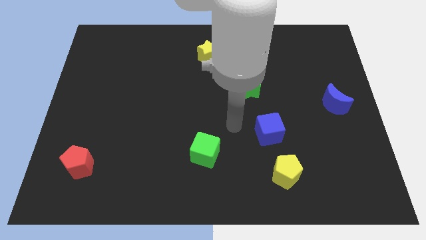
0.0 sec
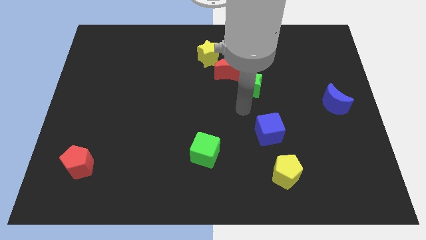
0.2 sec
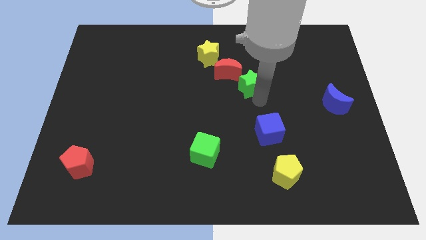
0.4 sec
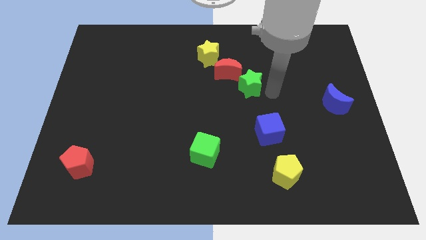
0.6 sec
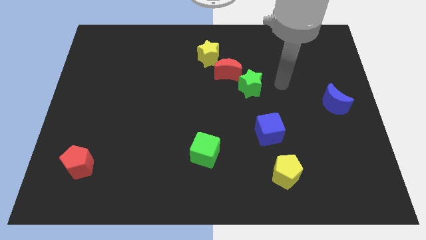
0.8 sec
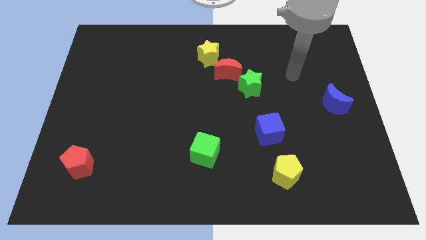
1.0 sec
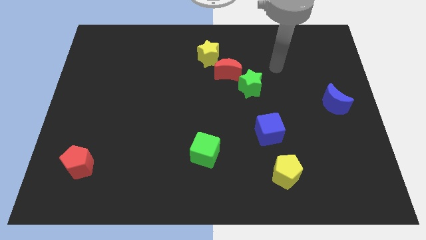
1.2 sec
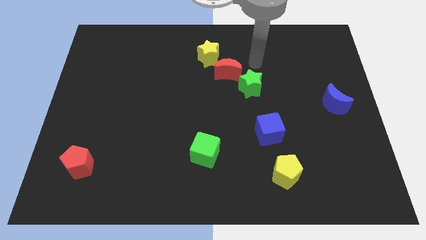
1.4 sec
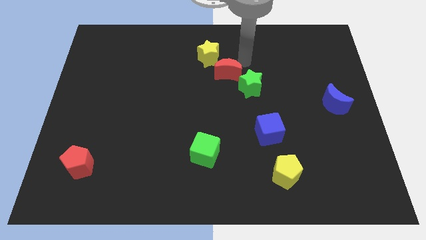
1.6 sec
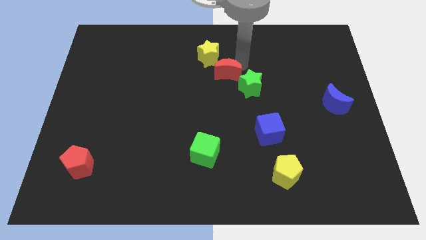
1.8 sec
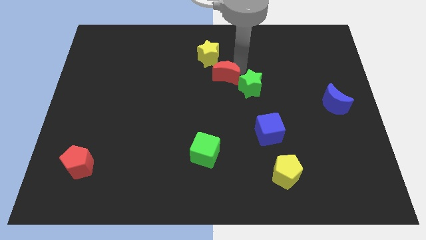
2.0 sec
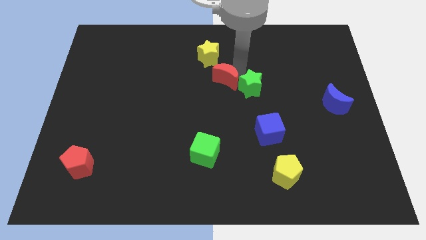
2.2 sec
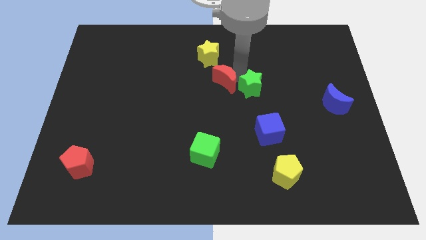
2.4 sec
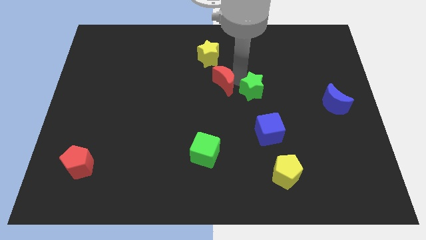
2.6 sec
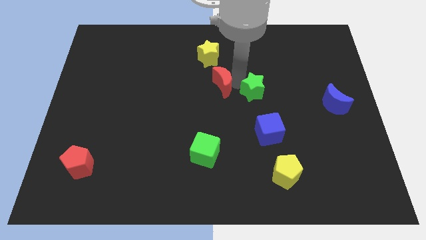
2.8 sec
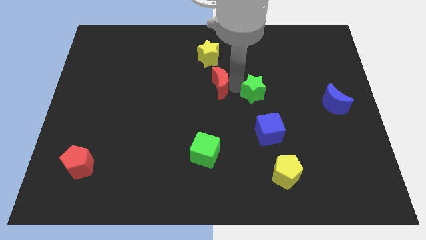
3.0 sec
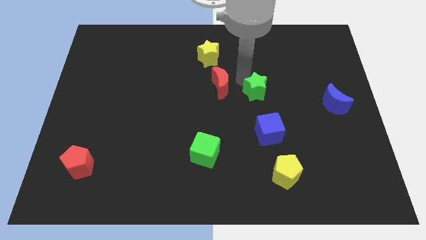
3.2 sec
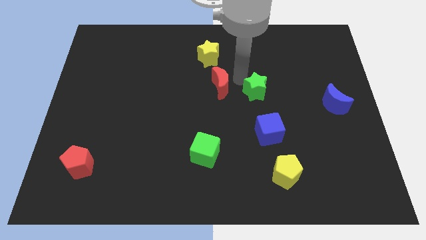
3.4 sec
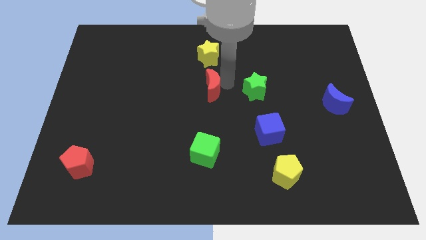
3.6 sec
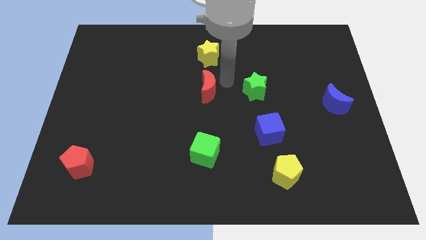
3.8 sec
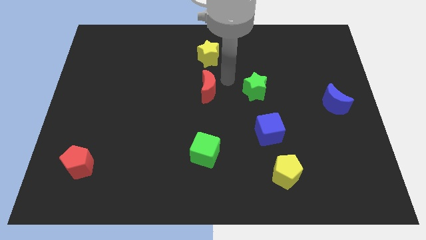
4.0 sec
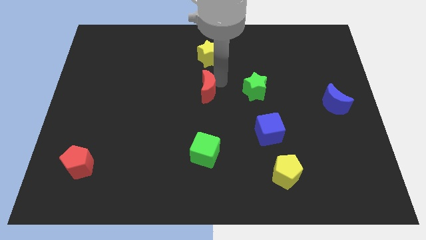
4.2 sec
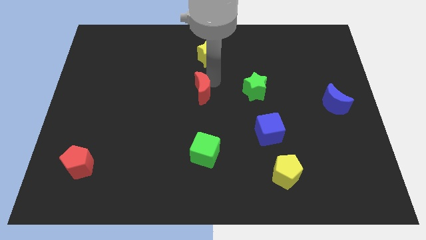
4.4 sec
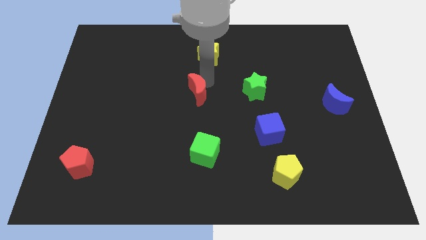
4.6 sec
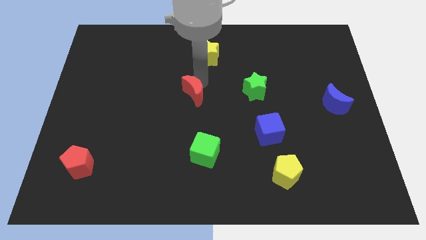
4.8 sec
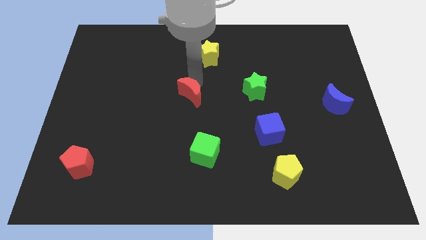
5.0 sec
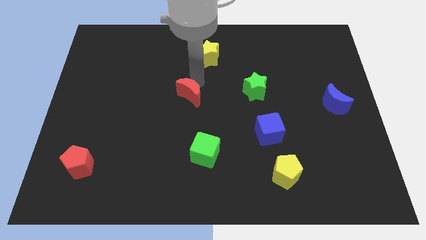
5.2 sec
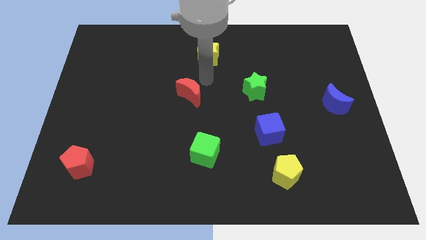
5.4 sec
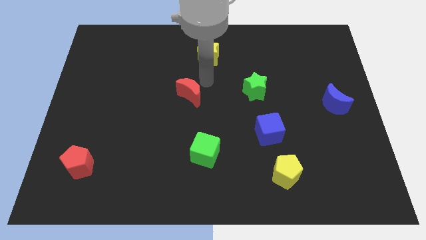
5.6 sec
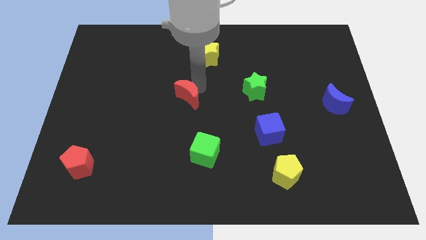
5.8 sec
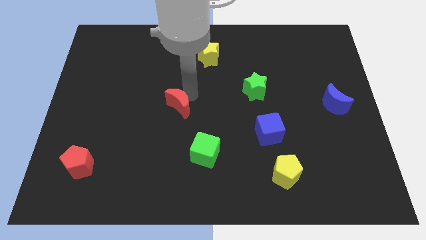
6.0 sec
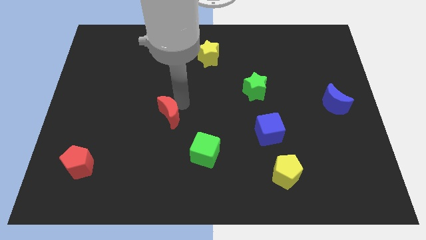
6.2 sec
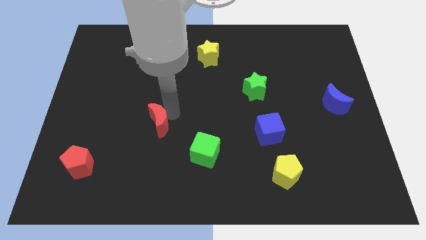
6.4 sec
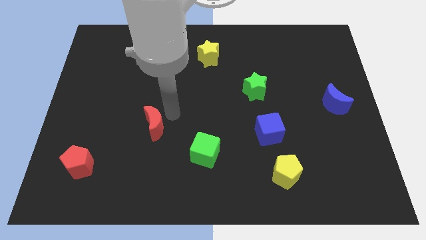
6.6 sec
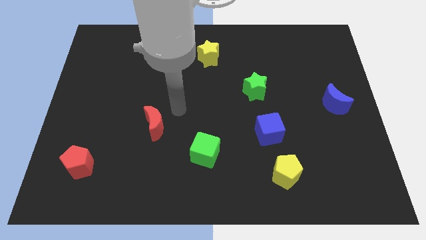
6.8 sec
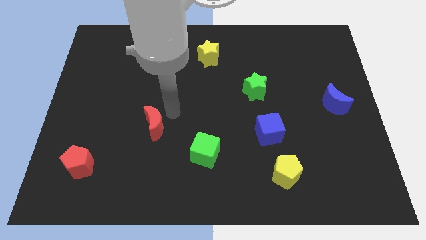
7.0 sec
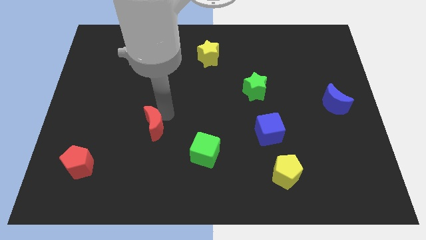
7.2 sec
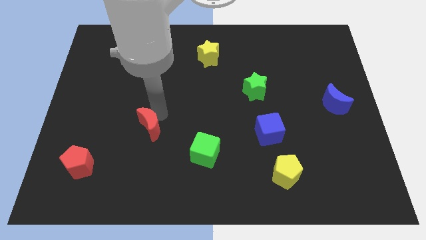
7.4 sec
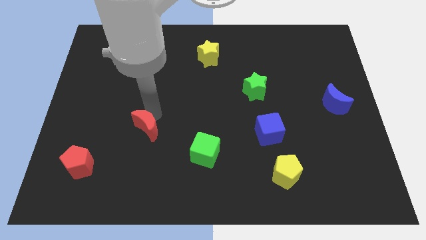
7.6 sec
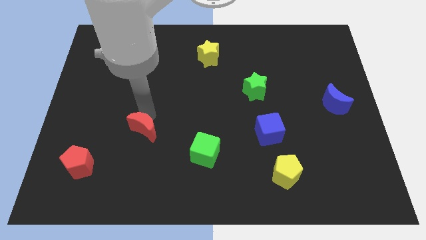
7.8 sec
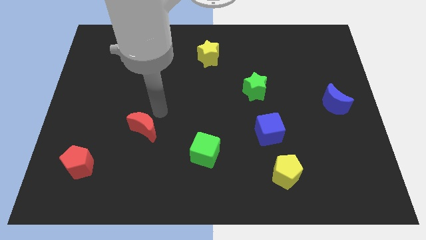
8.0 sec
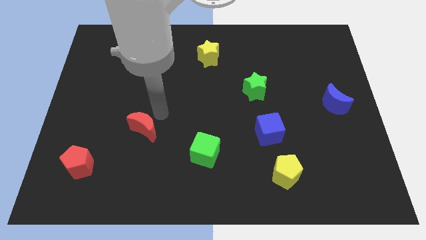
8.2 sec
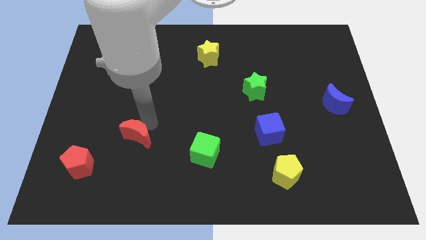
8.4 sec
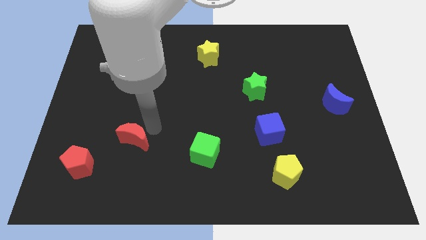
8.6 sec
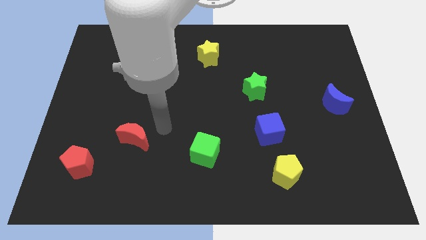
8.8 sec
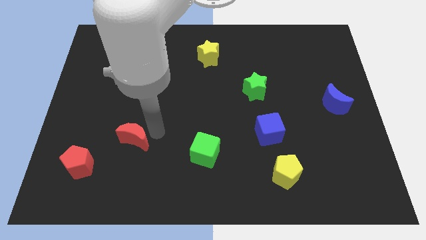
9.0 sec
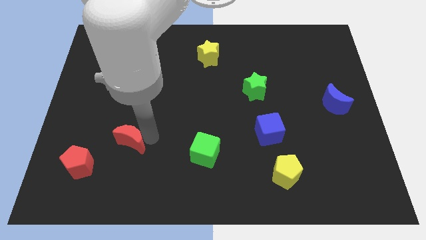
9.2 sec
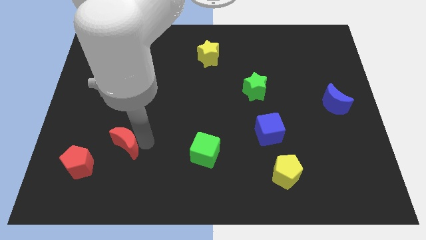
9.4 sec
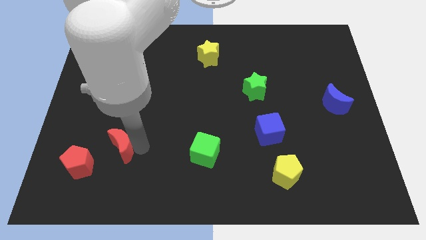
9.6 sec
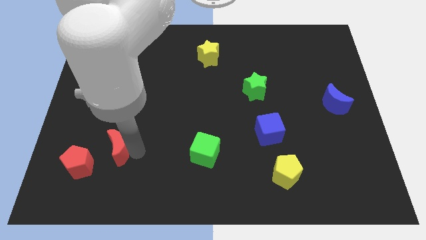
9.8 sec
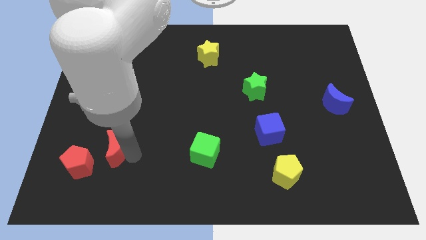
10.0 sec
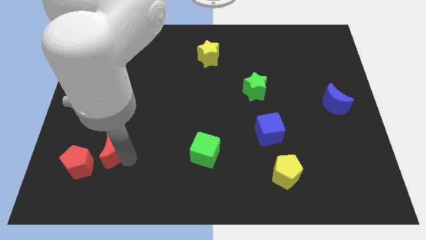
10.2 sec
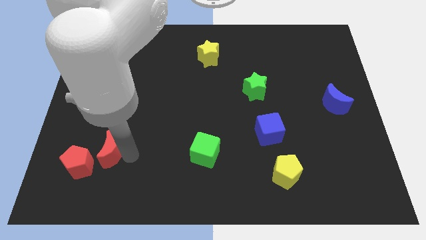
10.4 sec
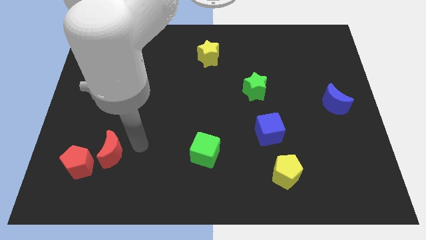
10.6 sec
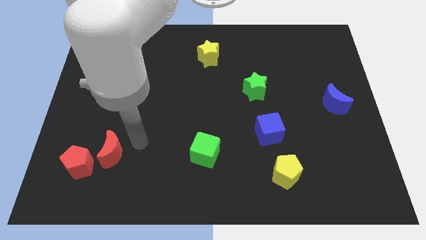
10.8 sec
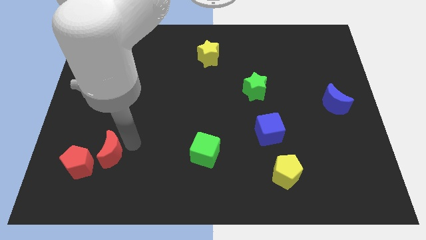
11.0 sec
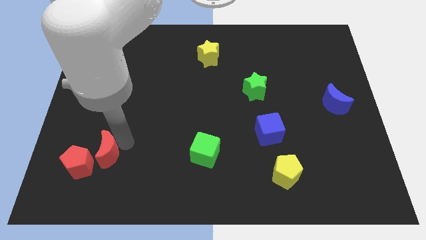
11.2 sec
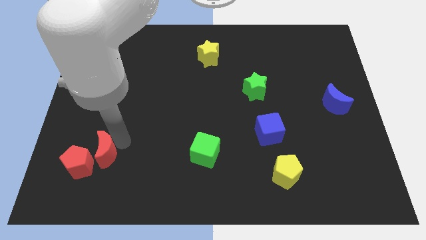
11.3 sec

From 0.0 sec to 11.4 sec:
push the red moon close to the red pentagon

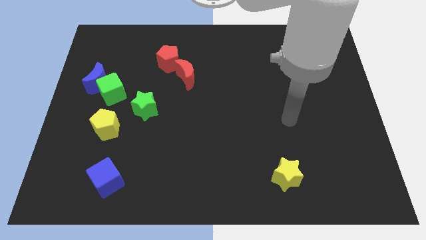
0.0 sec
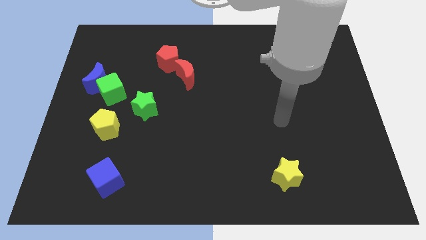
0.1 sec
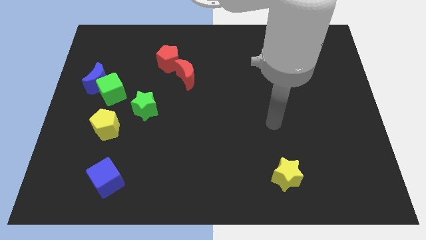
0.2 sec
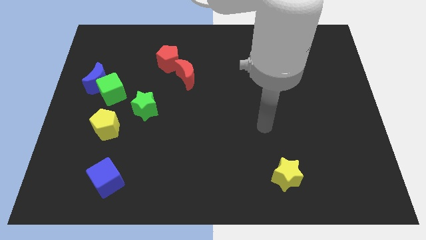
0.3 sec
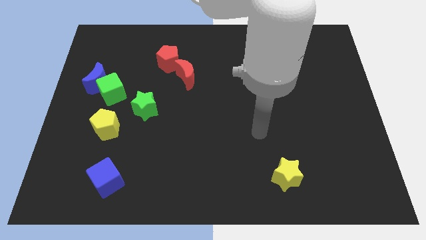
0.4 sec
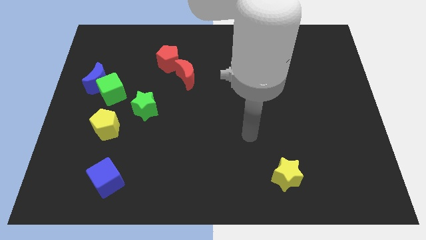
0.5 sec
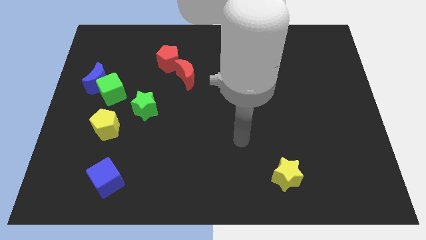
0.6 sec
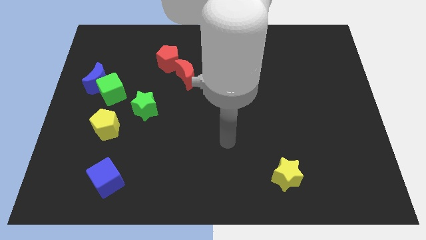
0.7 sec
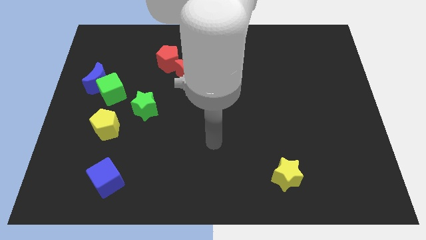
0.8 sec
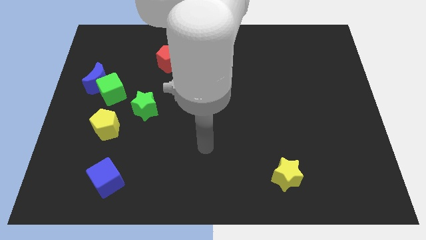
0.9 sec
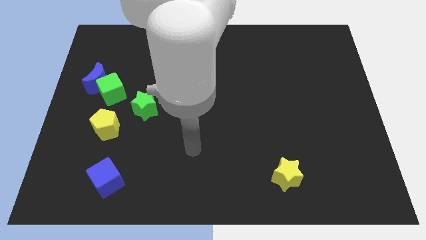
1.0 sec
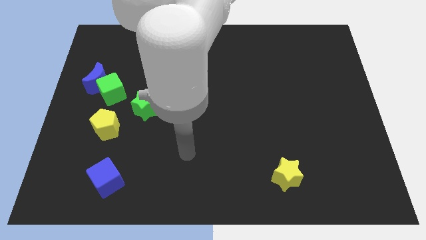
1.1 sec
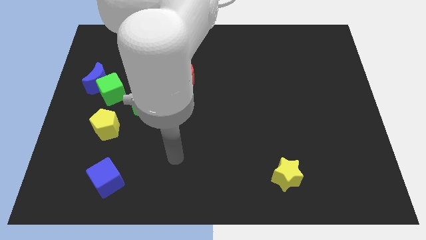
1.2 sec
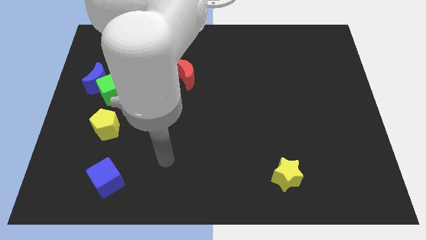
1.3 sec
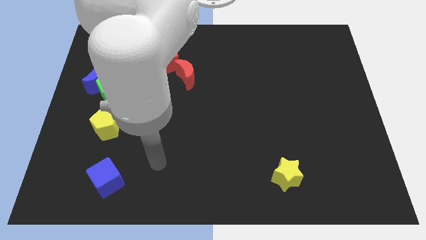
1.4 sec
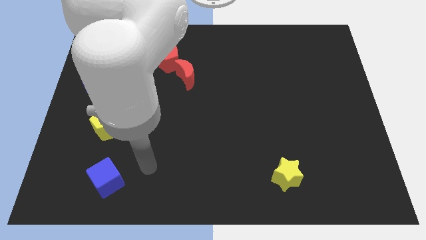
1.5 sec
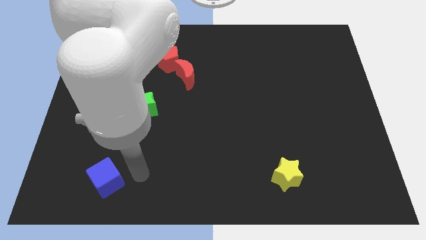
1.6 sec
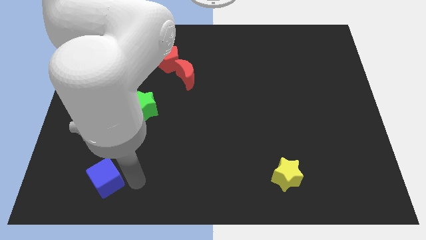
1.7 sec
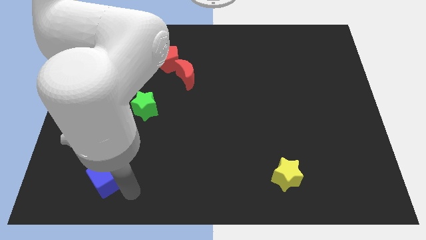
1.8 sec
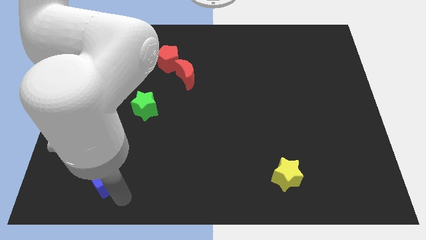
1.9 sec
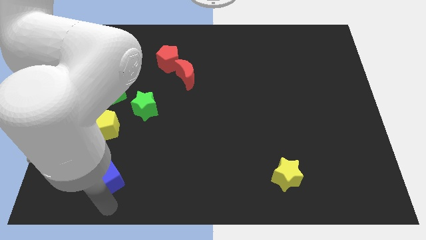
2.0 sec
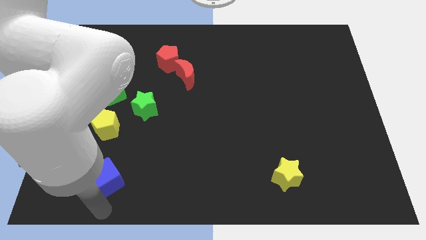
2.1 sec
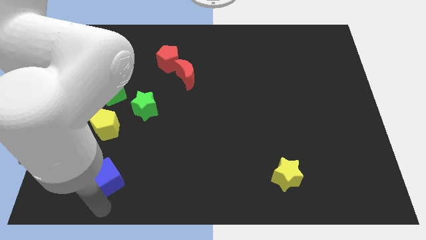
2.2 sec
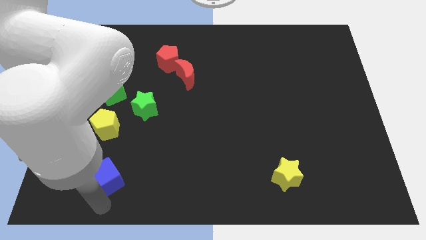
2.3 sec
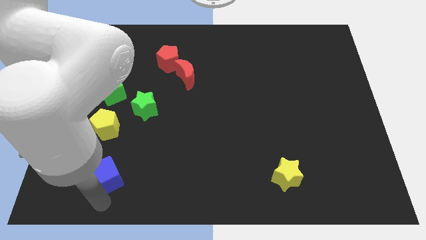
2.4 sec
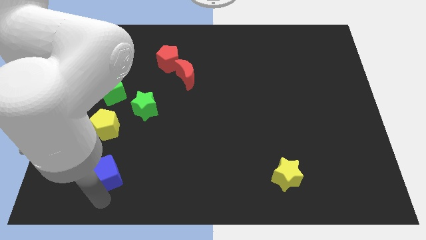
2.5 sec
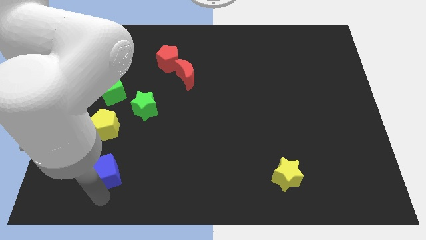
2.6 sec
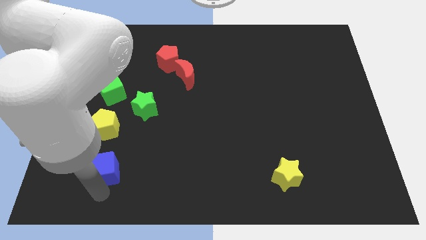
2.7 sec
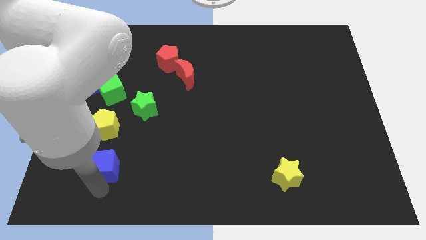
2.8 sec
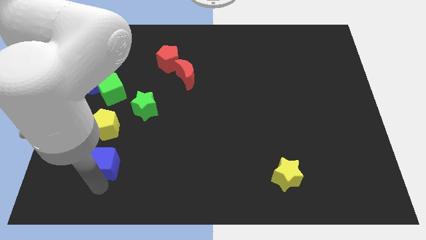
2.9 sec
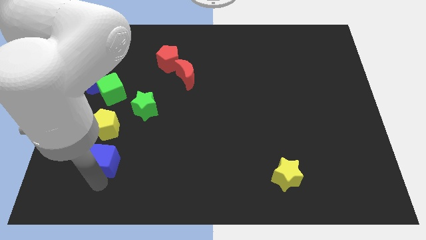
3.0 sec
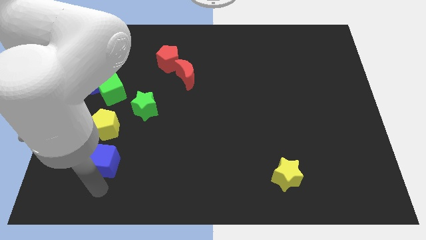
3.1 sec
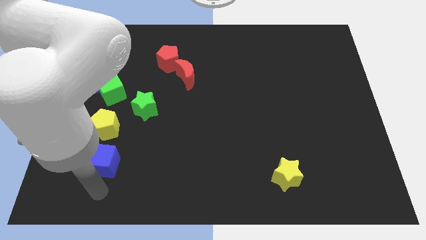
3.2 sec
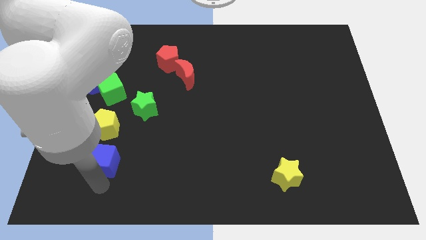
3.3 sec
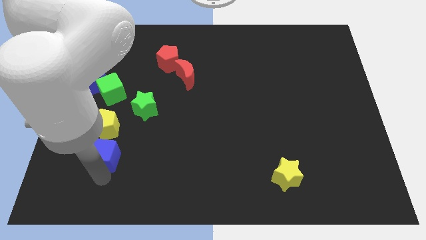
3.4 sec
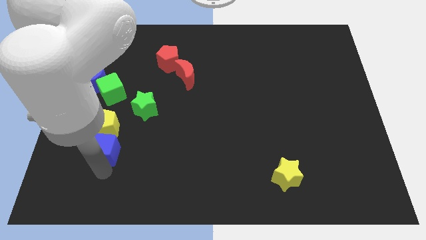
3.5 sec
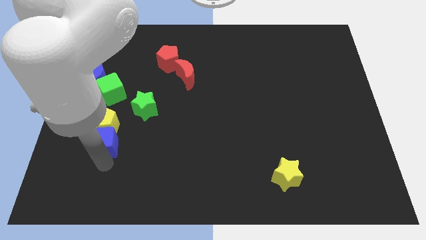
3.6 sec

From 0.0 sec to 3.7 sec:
push the blue cube to the yellow pentagon
